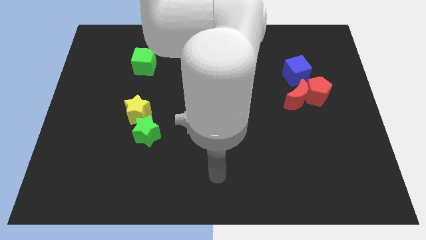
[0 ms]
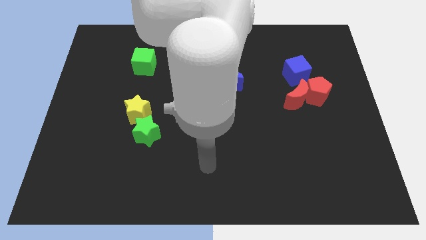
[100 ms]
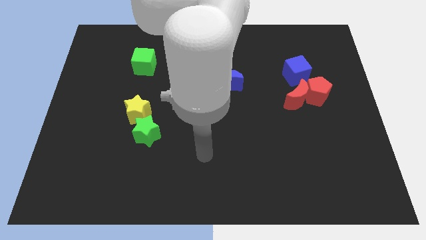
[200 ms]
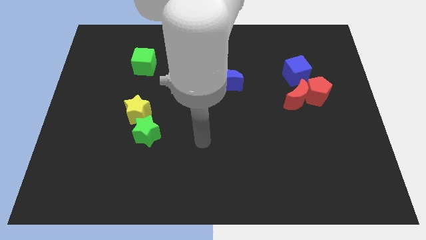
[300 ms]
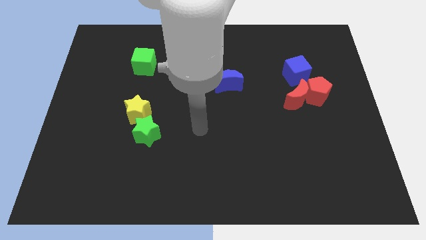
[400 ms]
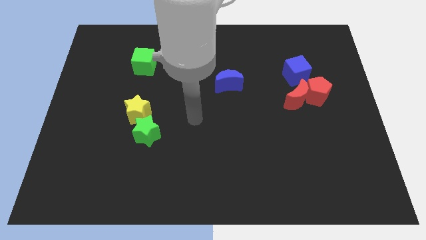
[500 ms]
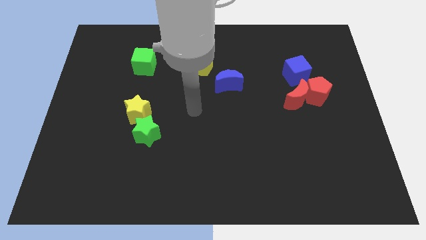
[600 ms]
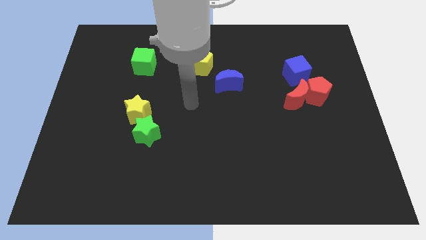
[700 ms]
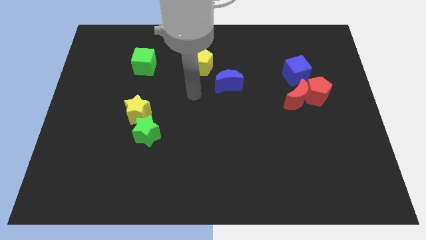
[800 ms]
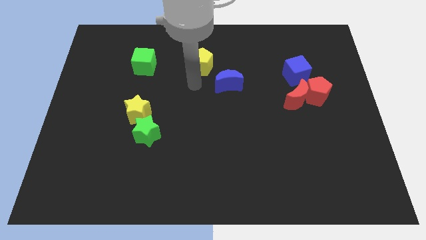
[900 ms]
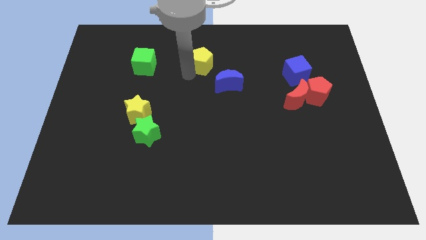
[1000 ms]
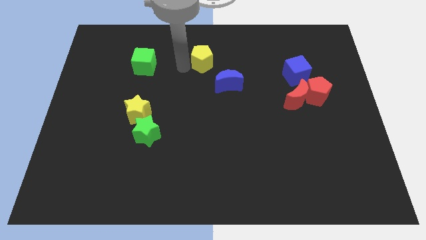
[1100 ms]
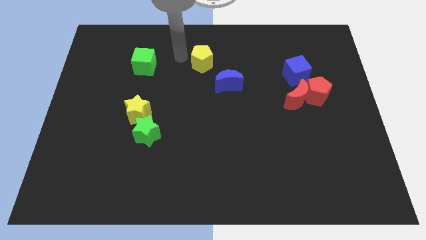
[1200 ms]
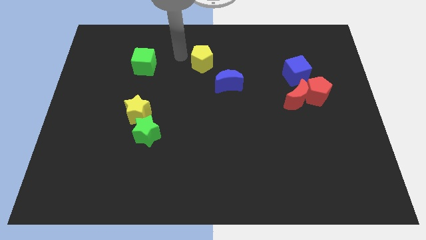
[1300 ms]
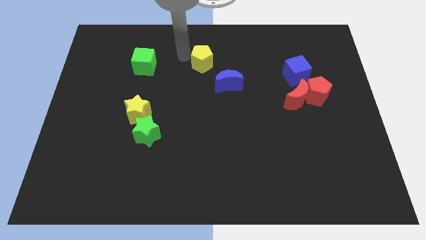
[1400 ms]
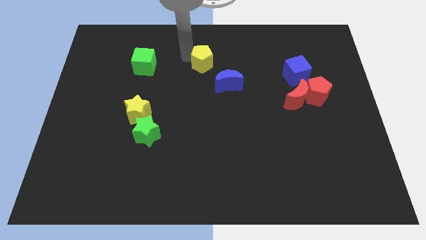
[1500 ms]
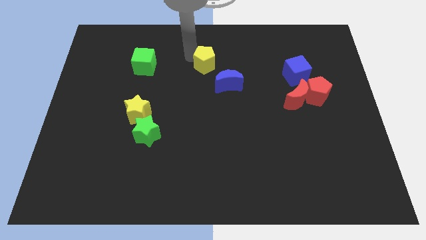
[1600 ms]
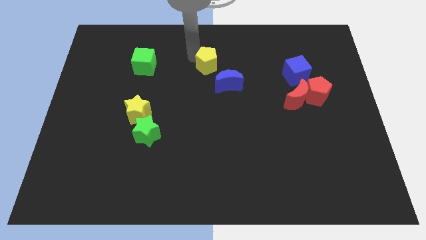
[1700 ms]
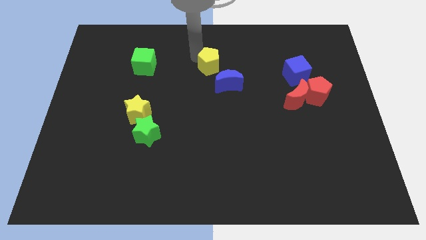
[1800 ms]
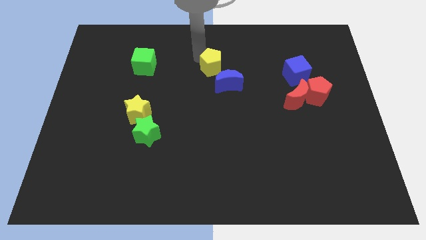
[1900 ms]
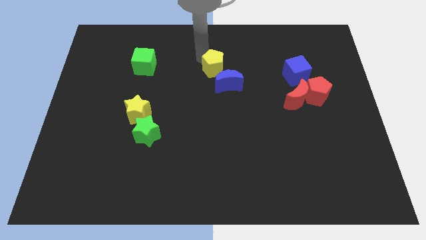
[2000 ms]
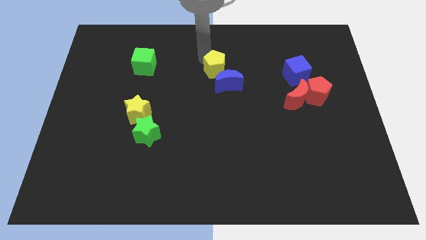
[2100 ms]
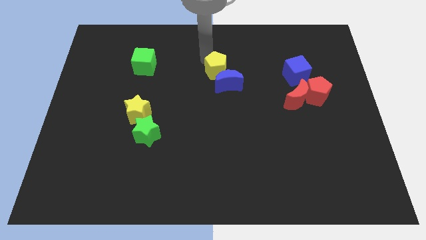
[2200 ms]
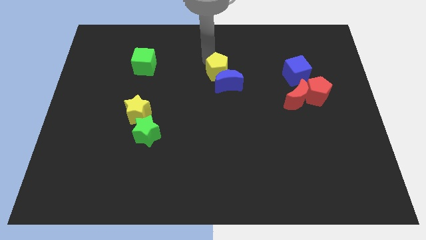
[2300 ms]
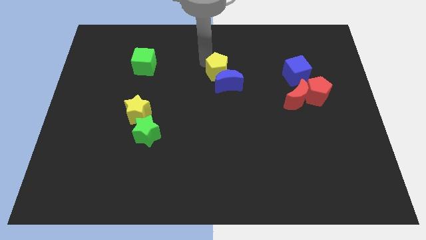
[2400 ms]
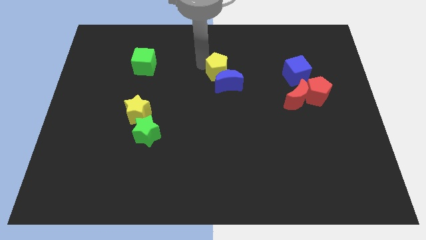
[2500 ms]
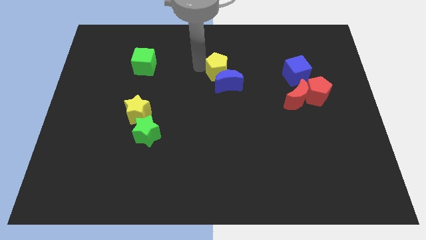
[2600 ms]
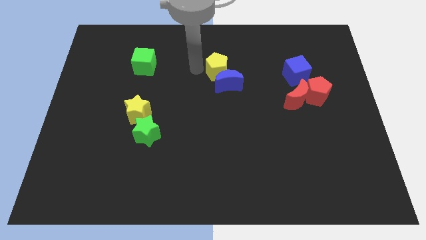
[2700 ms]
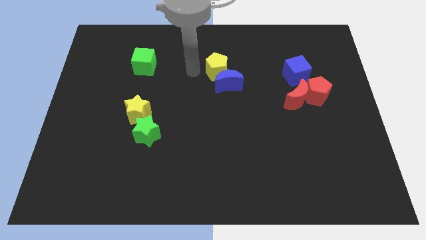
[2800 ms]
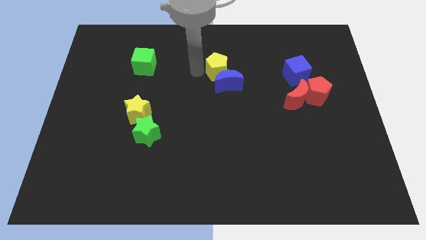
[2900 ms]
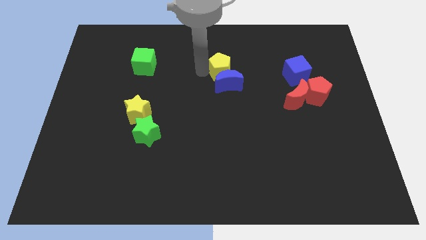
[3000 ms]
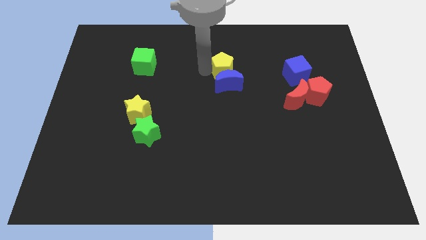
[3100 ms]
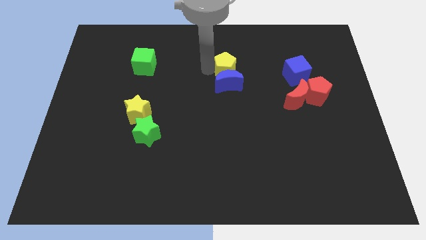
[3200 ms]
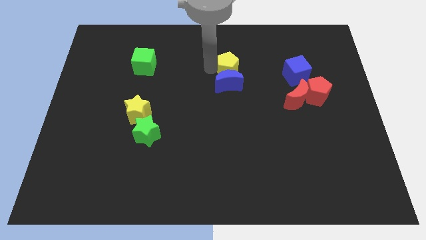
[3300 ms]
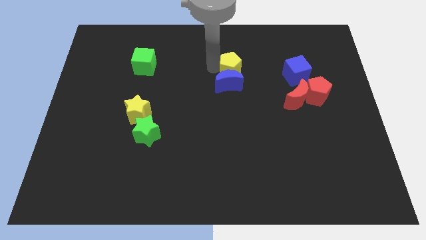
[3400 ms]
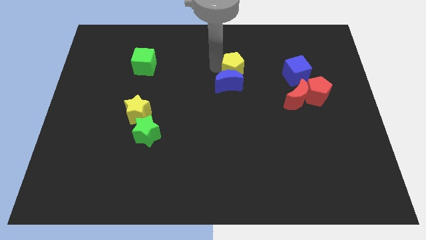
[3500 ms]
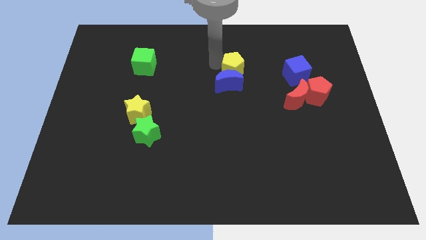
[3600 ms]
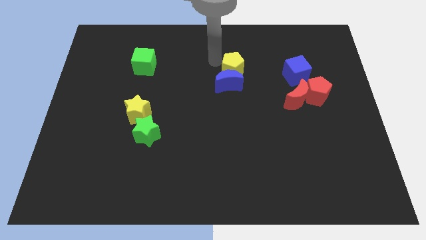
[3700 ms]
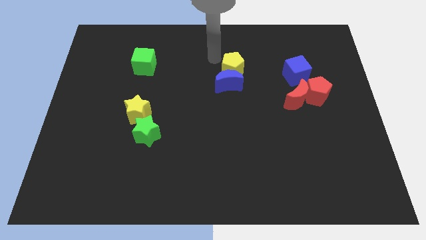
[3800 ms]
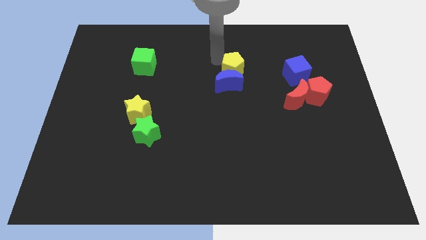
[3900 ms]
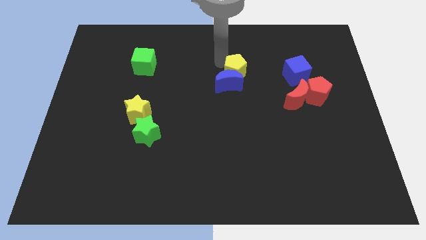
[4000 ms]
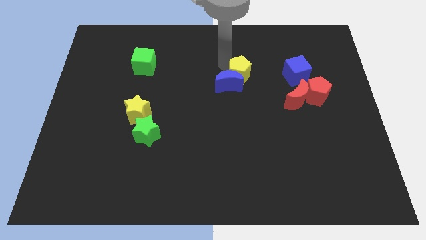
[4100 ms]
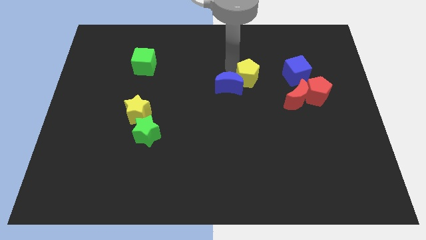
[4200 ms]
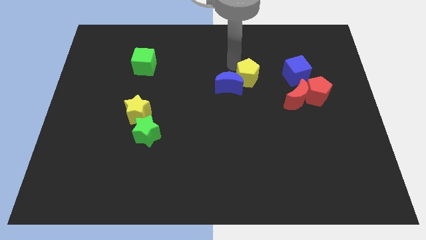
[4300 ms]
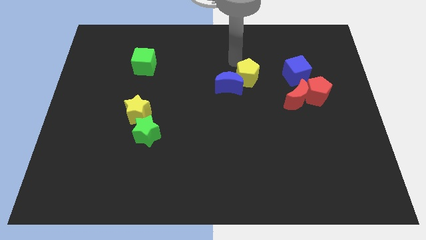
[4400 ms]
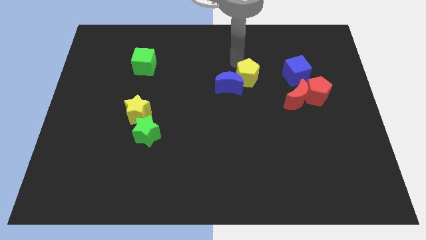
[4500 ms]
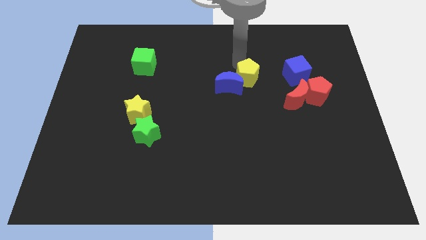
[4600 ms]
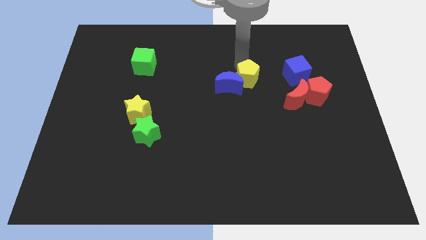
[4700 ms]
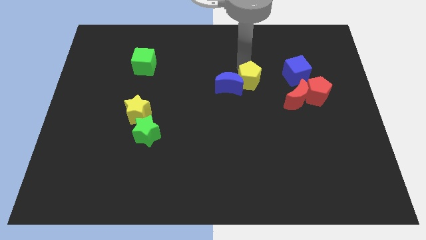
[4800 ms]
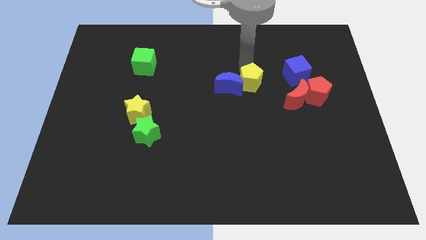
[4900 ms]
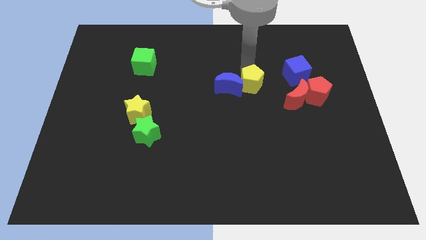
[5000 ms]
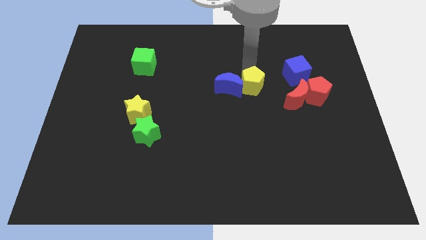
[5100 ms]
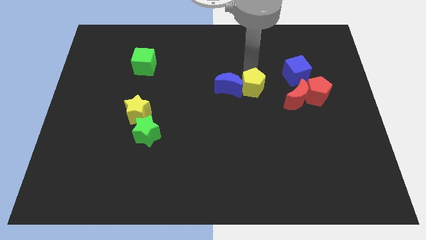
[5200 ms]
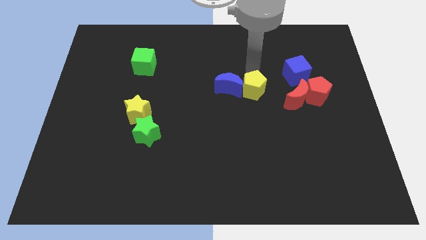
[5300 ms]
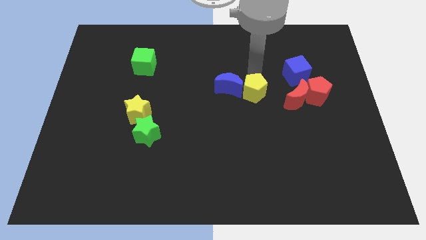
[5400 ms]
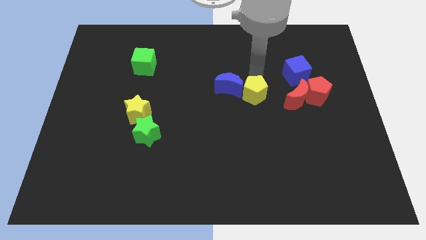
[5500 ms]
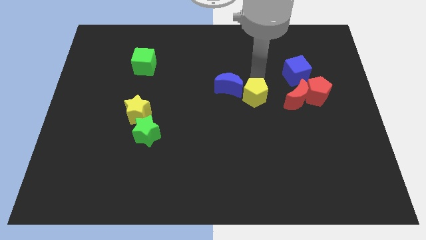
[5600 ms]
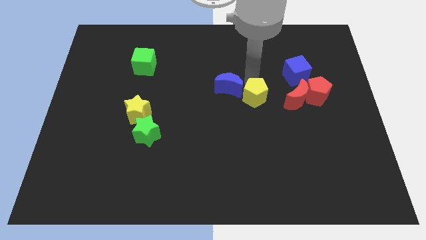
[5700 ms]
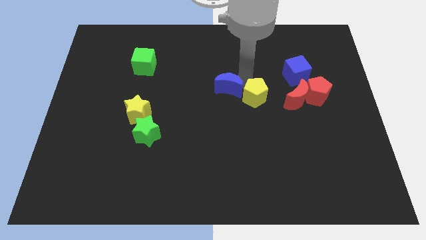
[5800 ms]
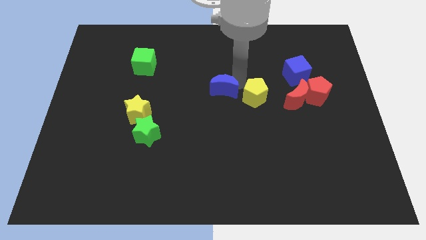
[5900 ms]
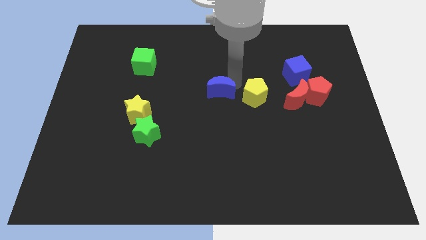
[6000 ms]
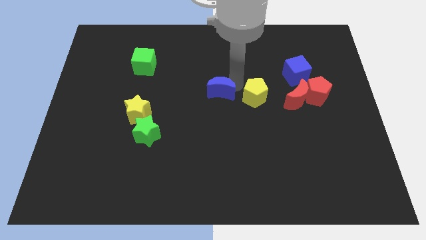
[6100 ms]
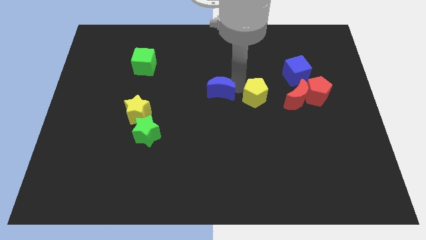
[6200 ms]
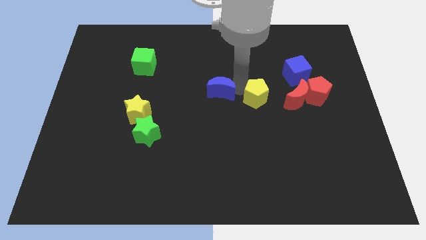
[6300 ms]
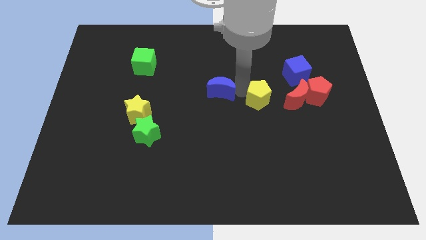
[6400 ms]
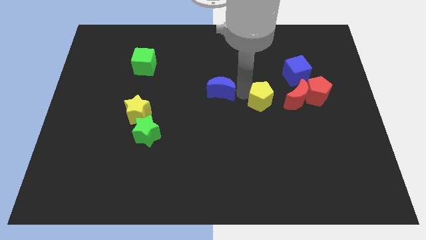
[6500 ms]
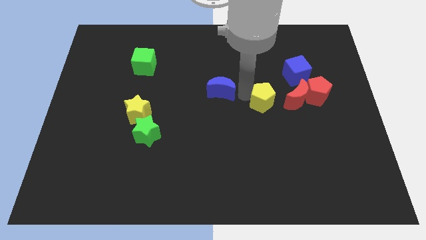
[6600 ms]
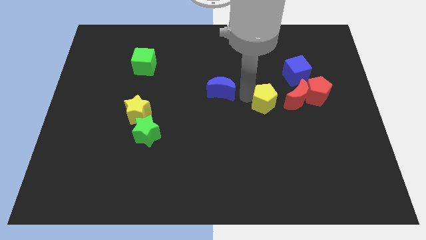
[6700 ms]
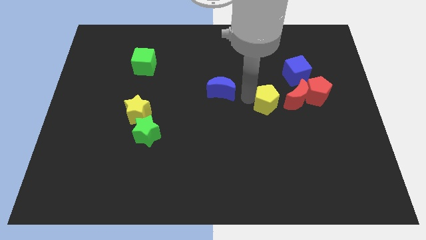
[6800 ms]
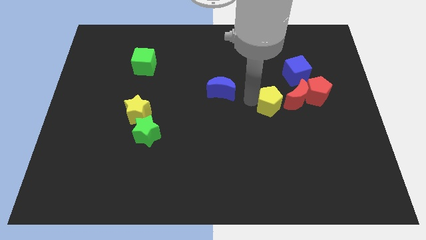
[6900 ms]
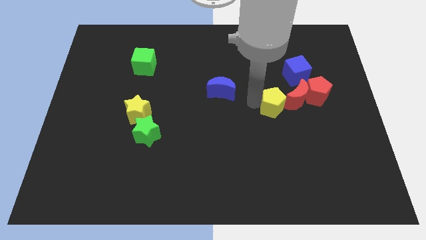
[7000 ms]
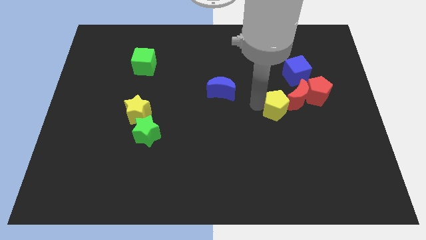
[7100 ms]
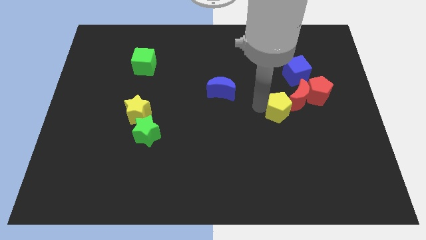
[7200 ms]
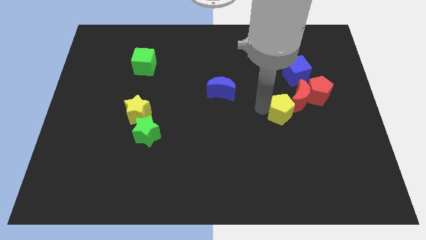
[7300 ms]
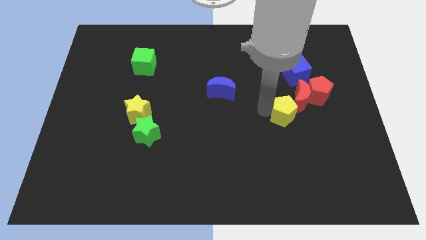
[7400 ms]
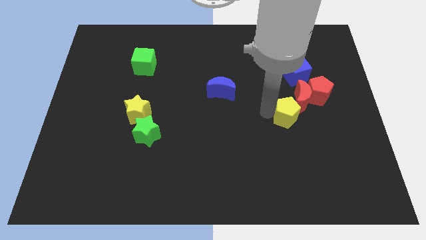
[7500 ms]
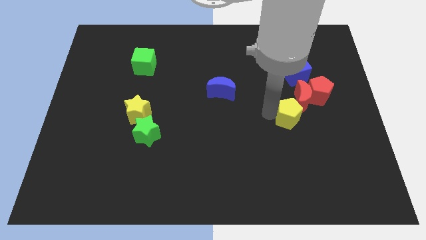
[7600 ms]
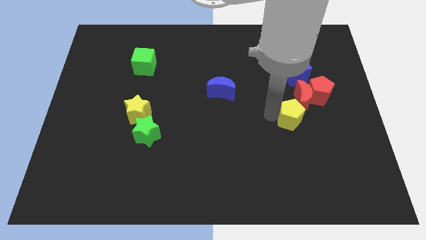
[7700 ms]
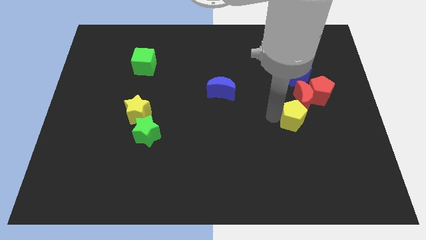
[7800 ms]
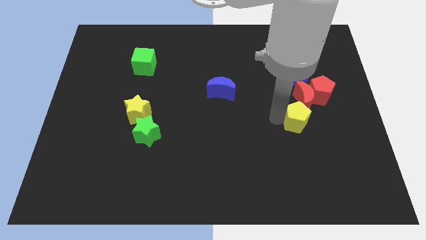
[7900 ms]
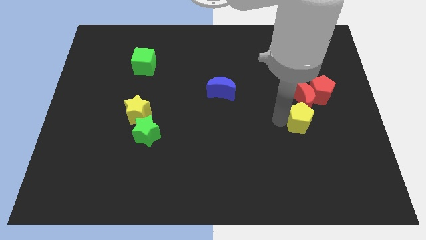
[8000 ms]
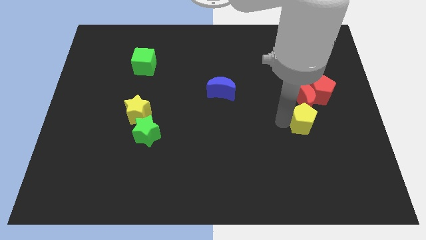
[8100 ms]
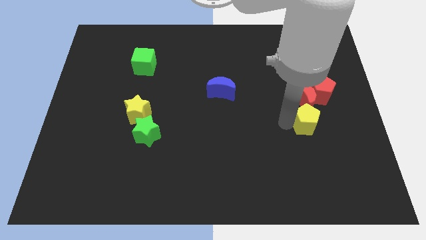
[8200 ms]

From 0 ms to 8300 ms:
slide the yellow pentagon below the red pentagon
